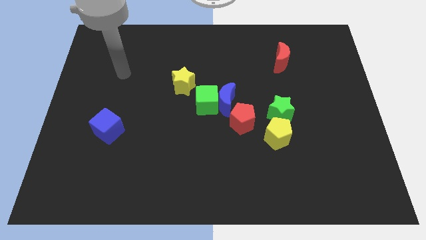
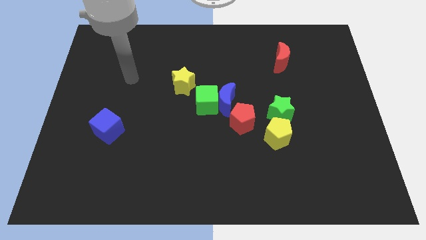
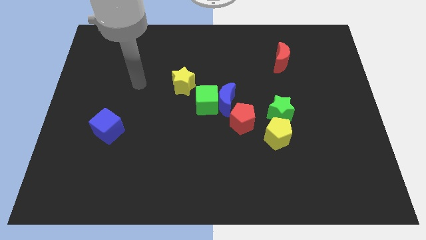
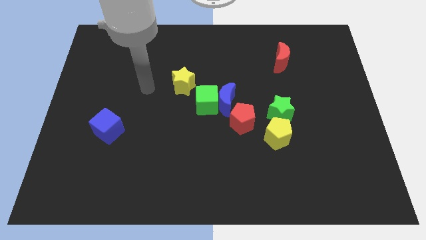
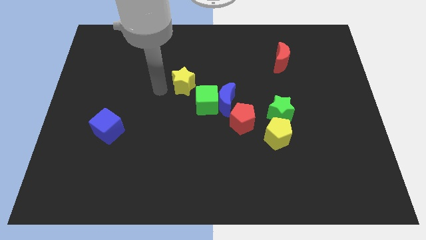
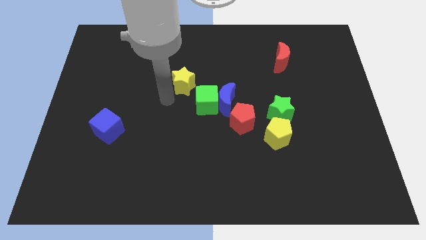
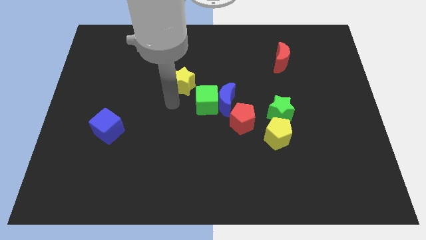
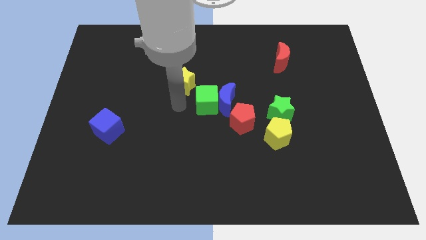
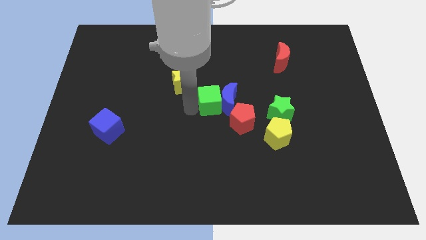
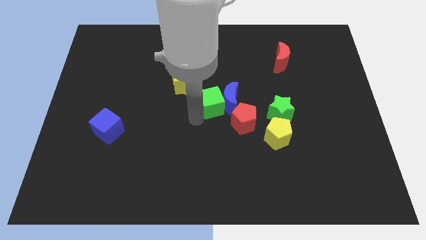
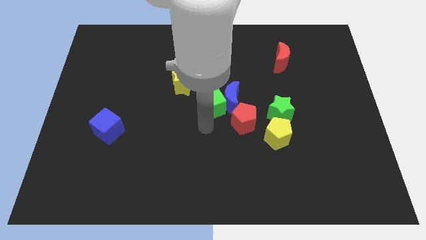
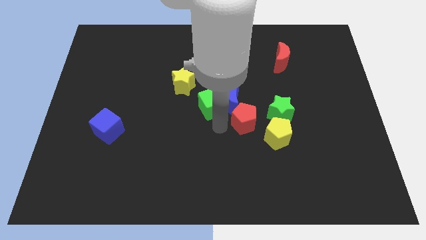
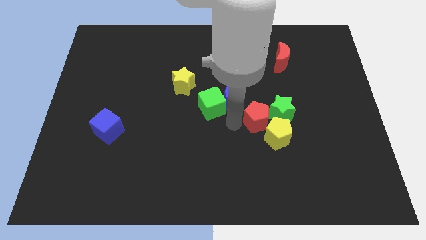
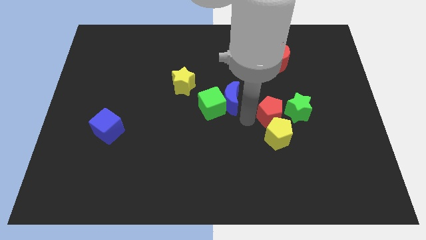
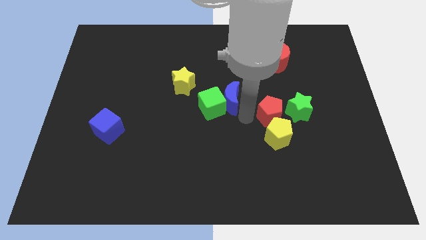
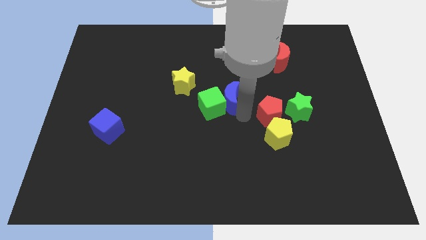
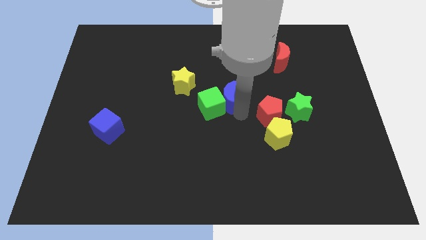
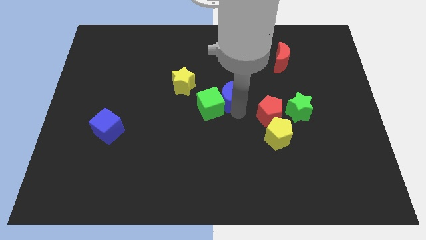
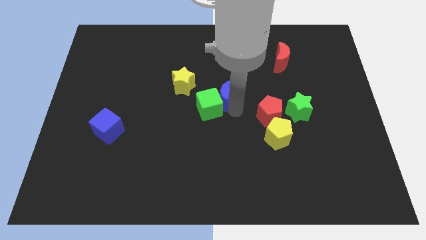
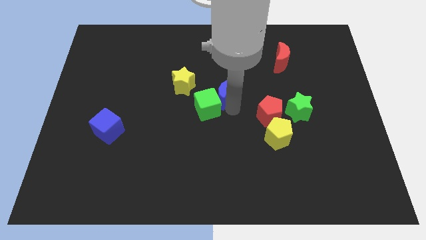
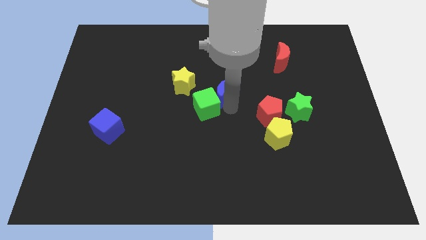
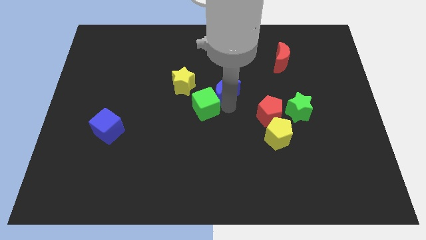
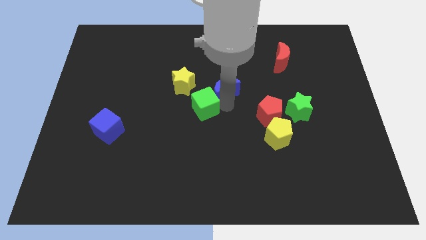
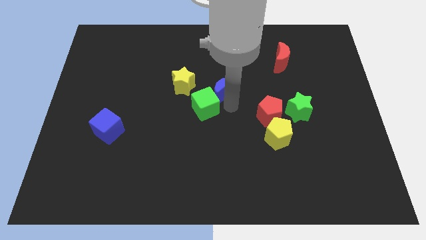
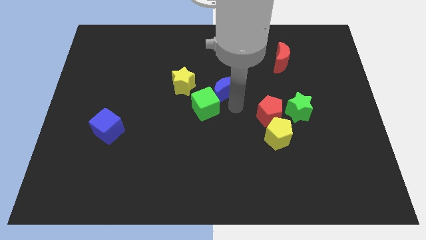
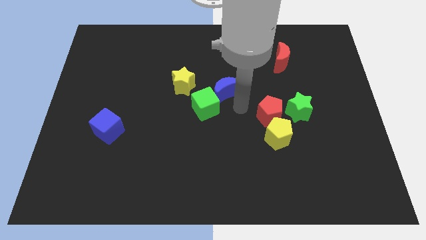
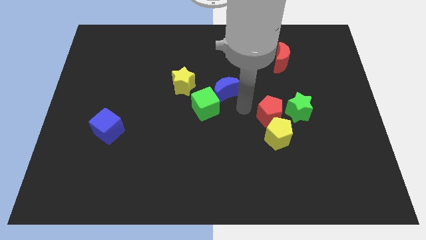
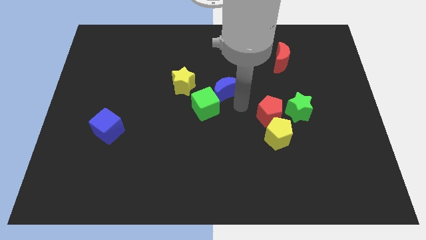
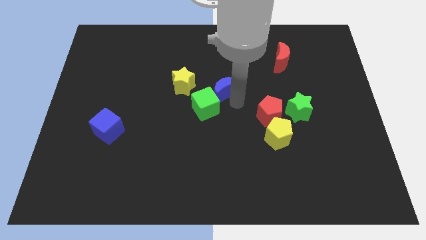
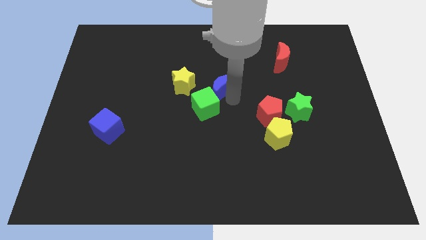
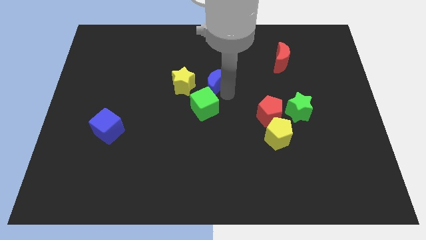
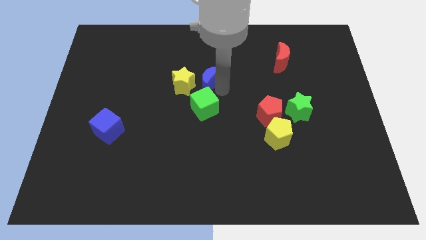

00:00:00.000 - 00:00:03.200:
slightly move the blue moon up and left diagonally

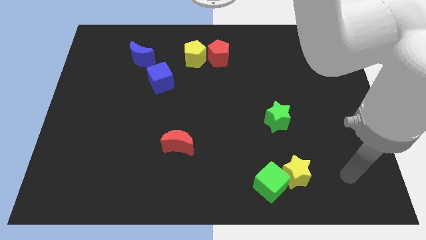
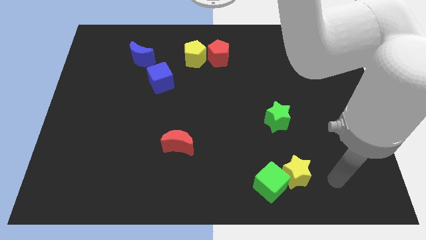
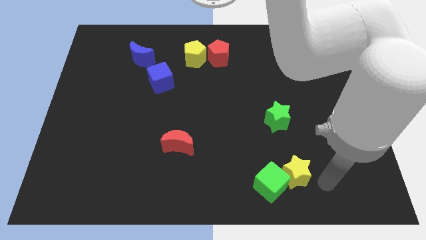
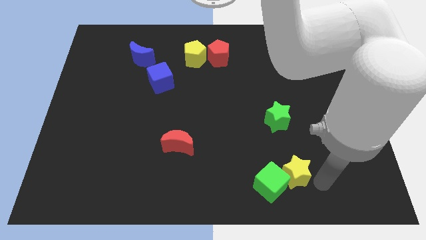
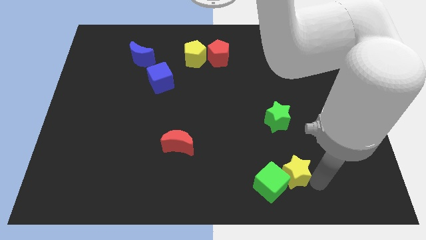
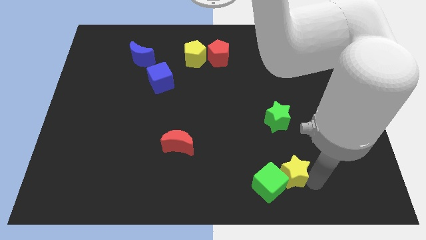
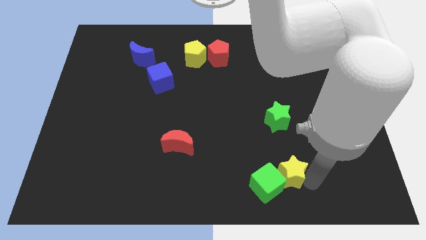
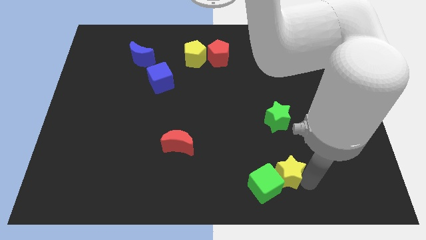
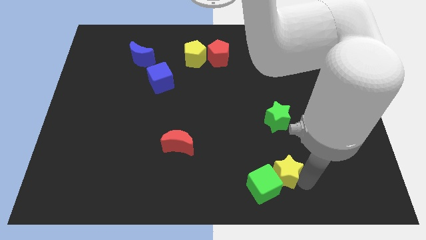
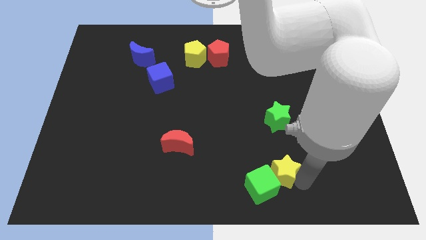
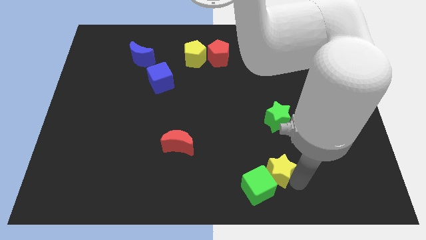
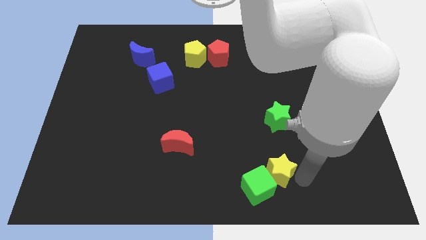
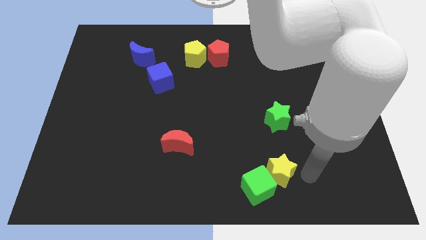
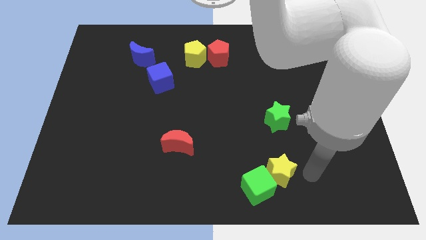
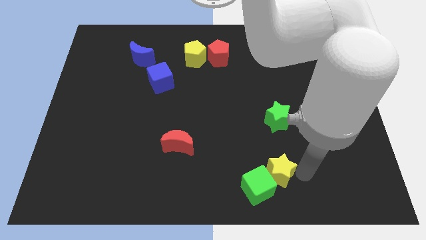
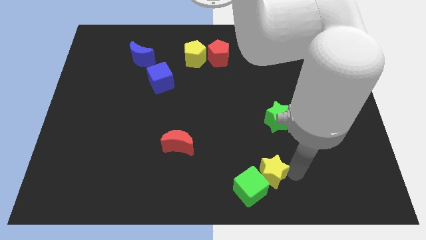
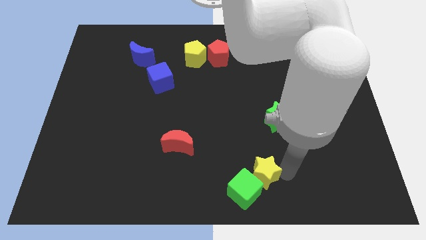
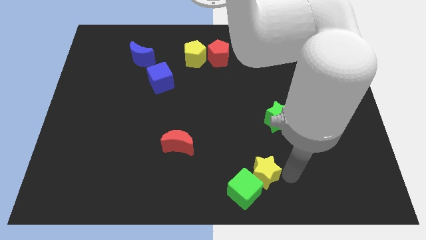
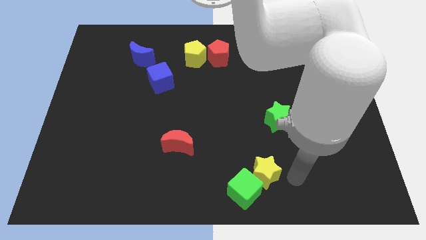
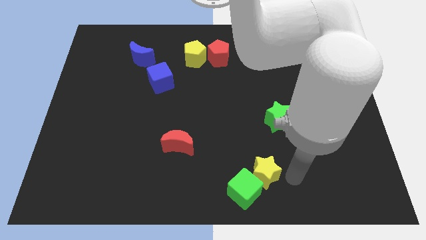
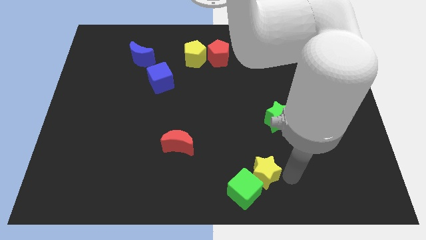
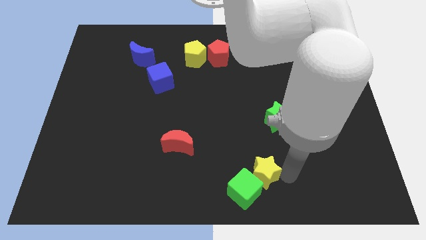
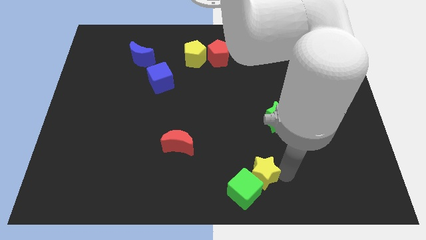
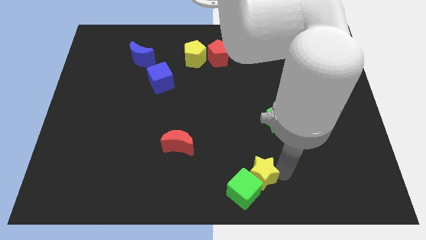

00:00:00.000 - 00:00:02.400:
slide the yellow star somewhat left

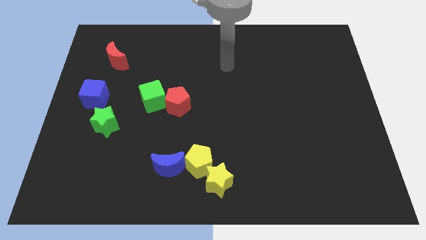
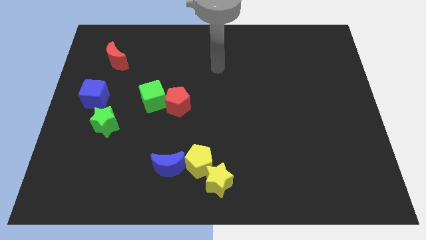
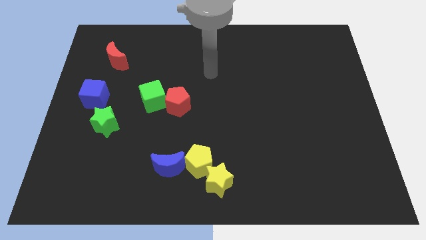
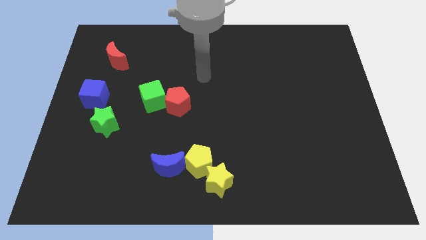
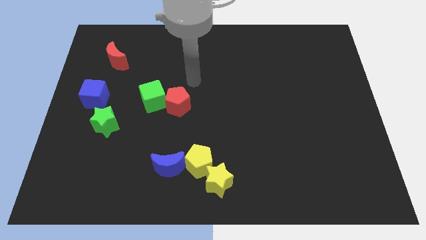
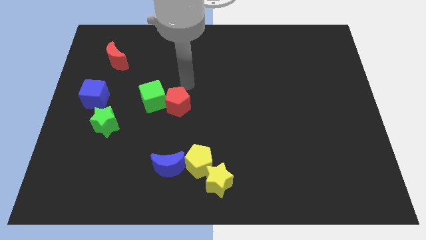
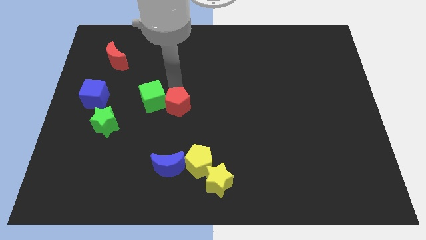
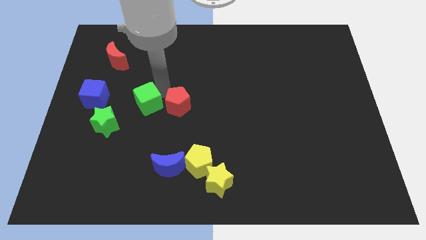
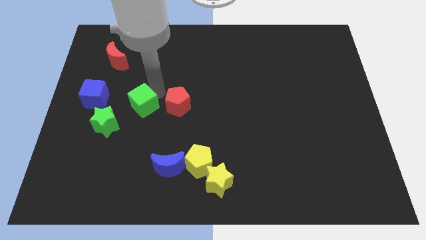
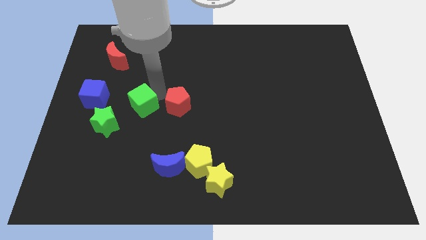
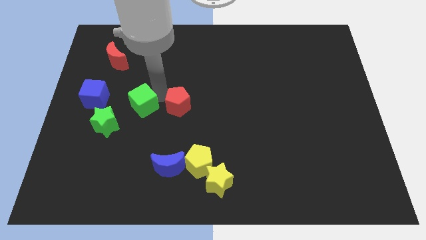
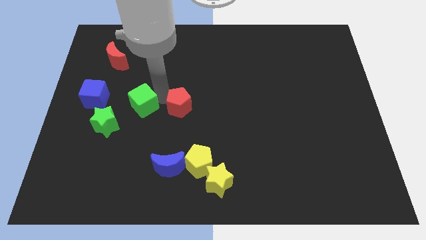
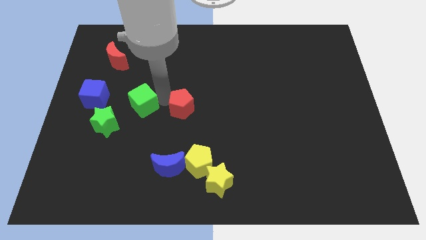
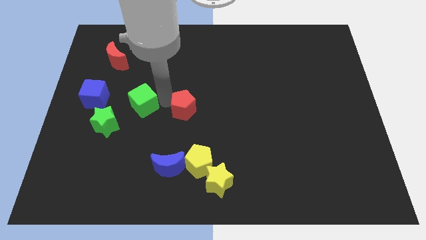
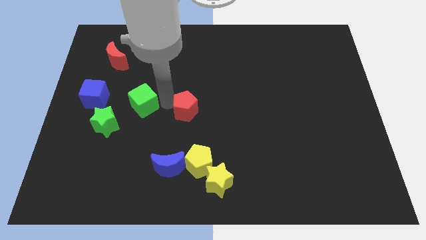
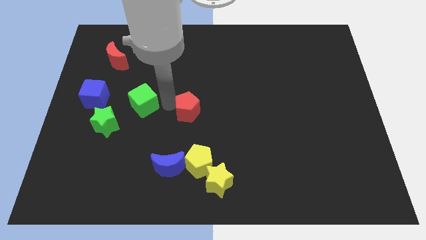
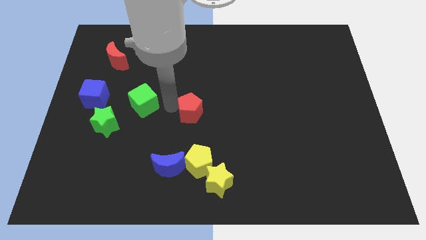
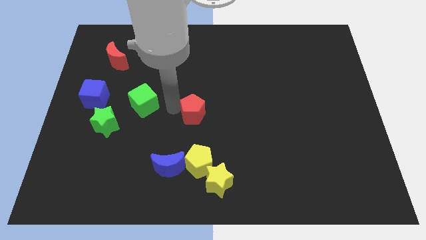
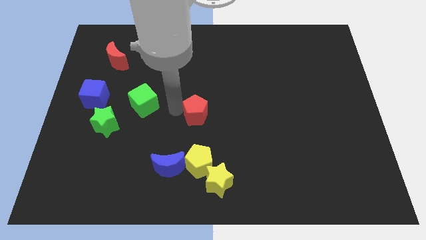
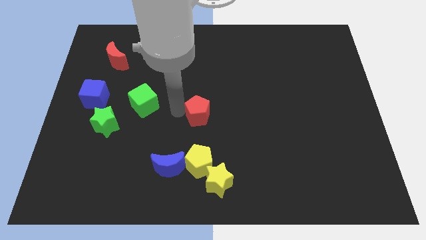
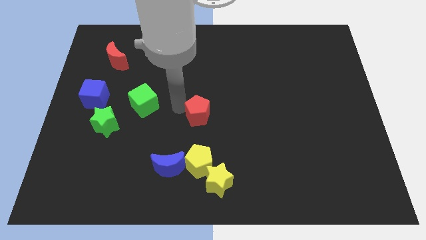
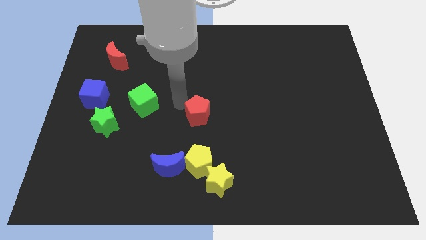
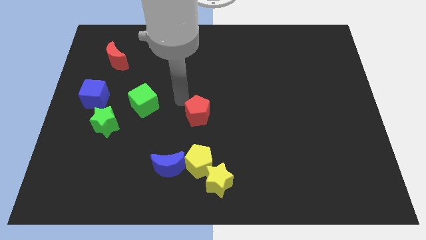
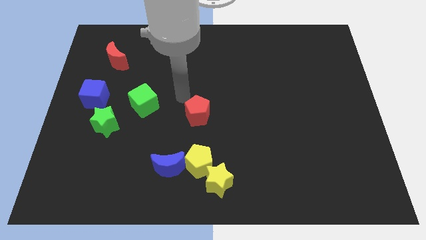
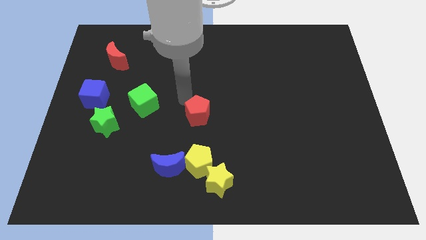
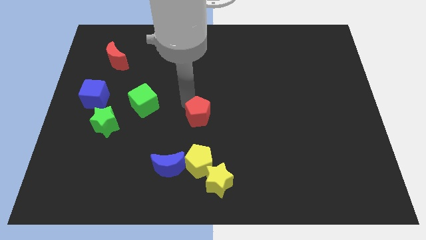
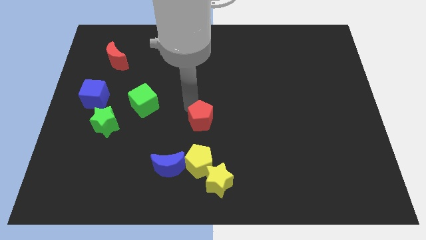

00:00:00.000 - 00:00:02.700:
slightly push the red pentagon downwards and then to the right
